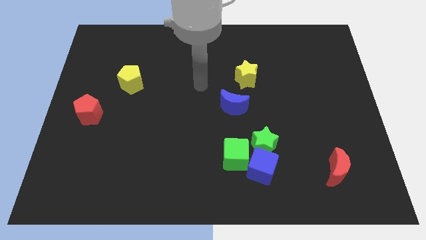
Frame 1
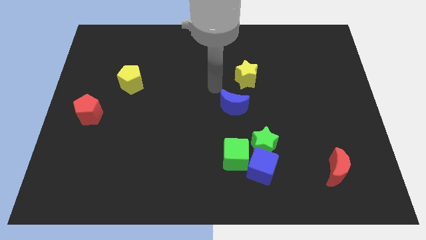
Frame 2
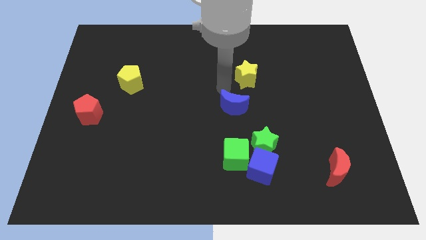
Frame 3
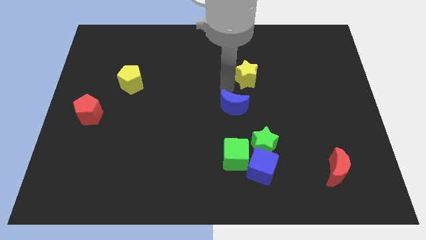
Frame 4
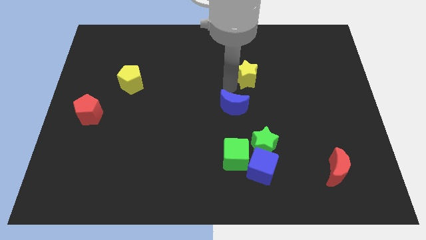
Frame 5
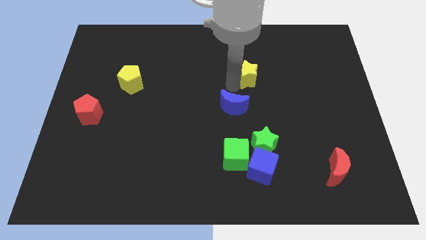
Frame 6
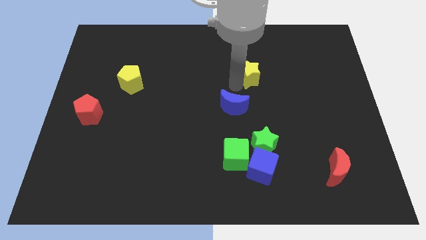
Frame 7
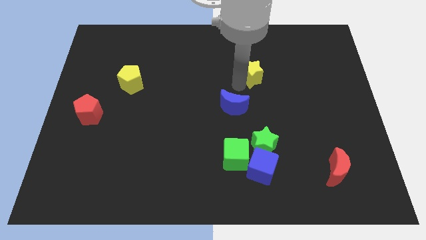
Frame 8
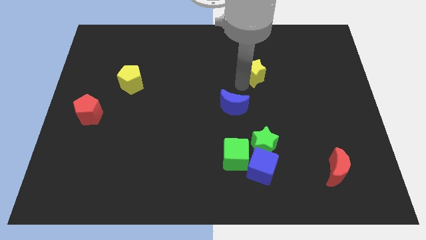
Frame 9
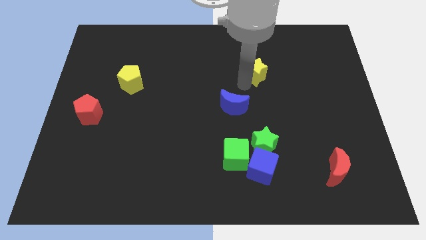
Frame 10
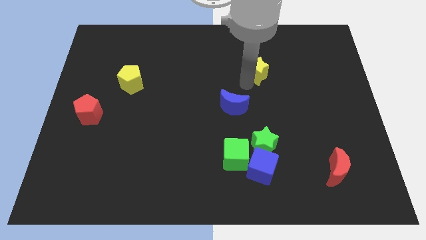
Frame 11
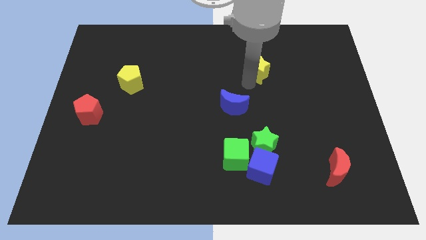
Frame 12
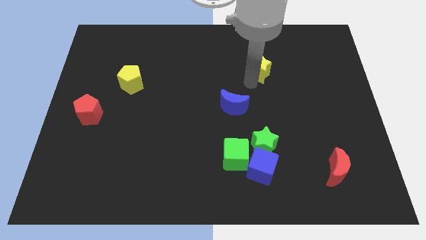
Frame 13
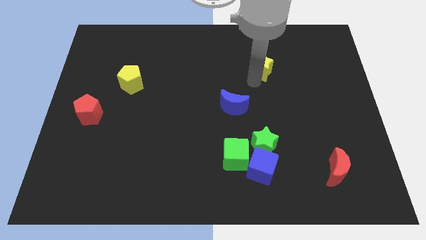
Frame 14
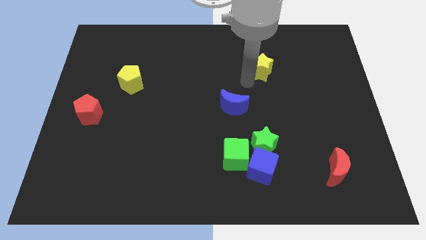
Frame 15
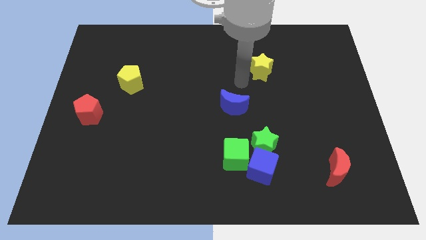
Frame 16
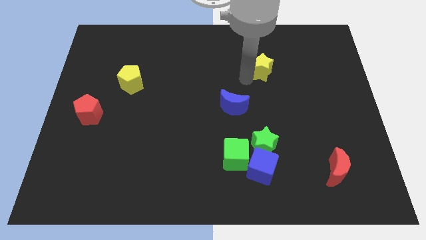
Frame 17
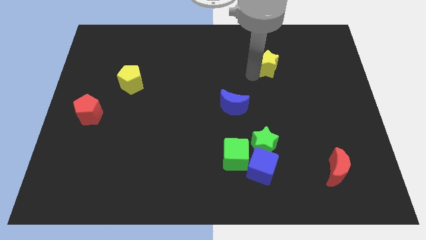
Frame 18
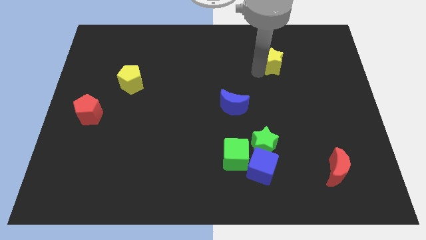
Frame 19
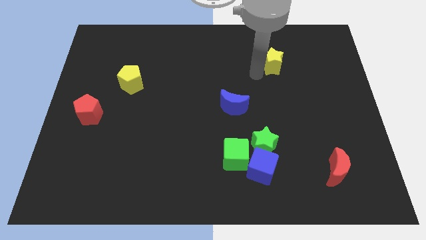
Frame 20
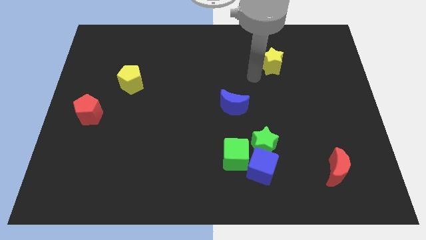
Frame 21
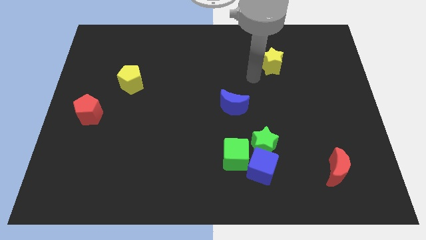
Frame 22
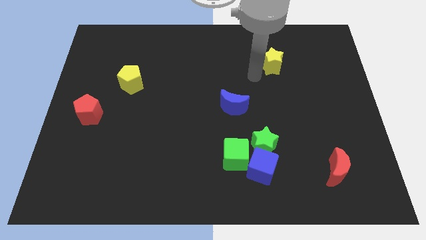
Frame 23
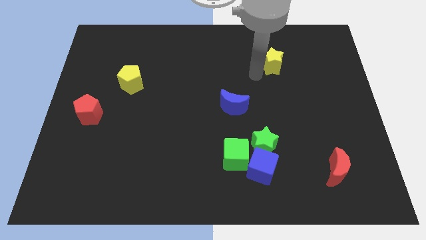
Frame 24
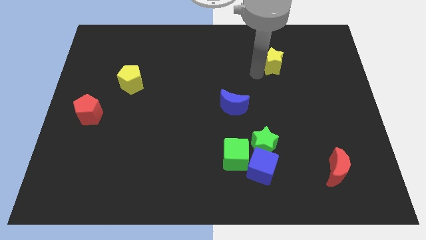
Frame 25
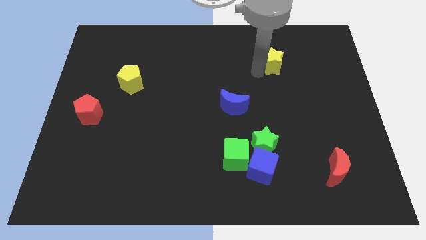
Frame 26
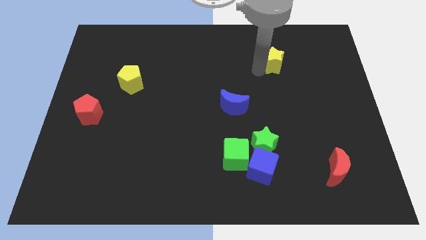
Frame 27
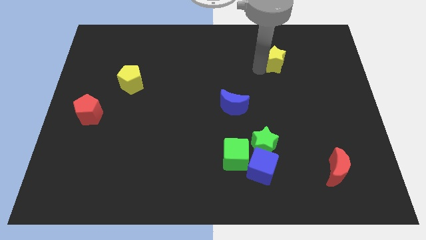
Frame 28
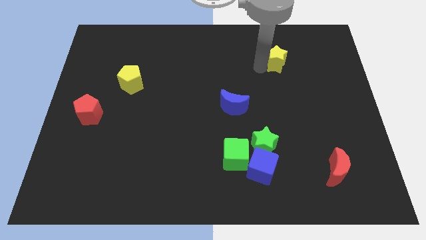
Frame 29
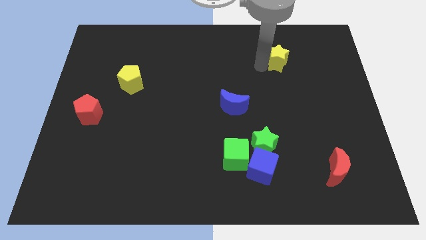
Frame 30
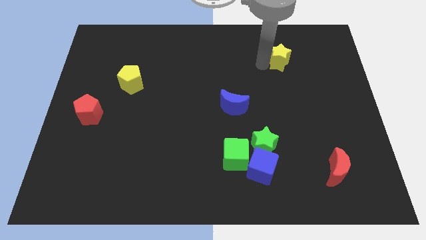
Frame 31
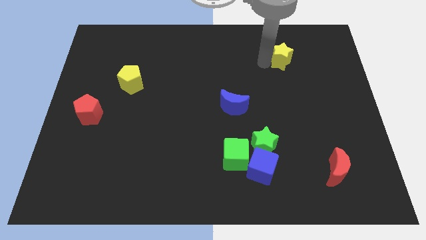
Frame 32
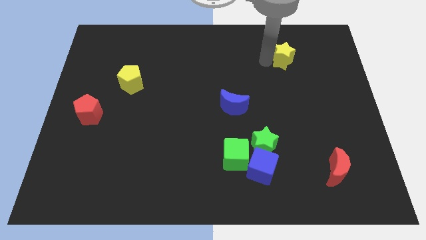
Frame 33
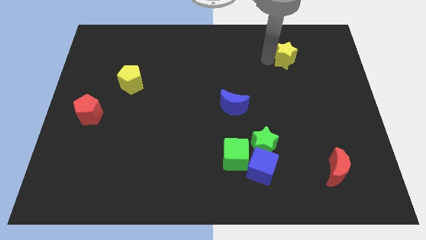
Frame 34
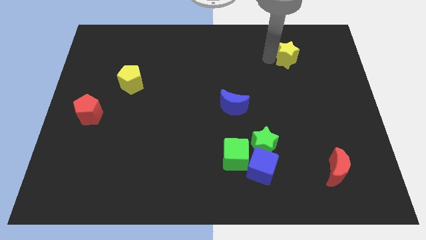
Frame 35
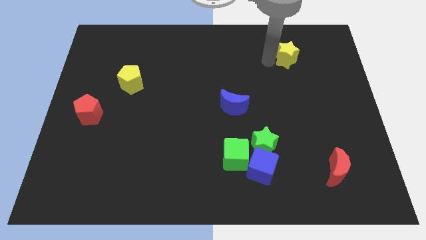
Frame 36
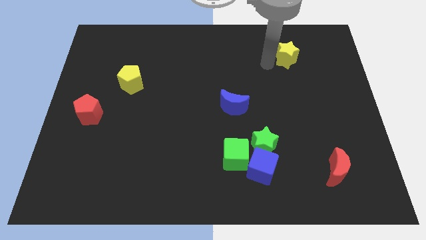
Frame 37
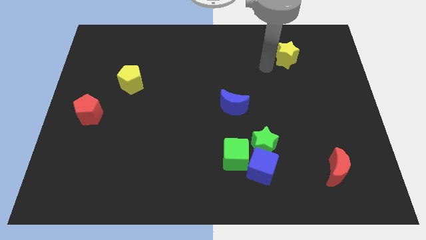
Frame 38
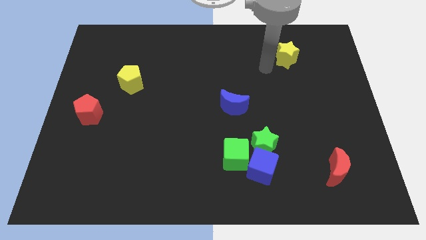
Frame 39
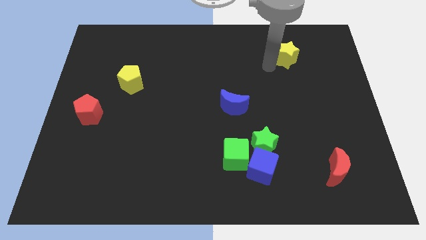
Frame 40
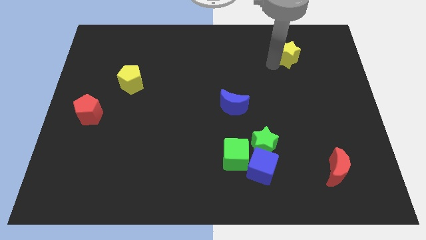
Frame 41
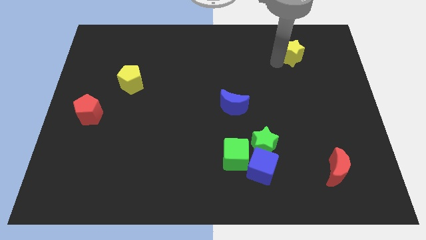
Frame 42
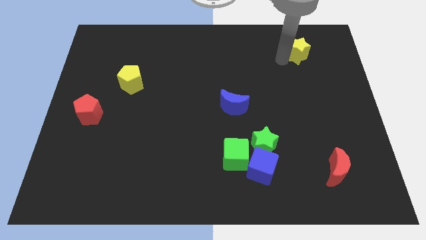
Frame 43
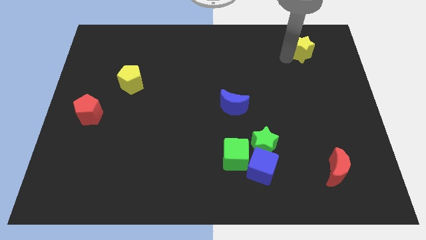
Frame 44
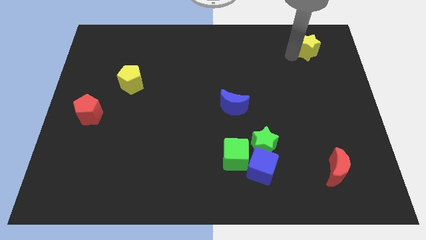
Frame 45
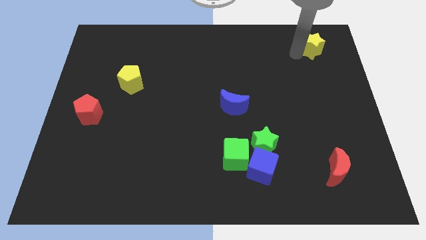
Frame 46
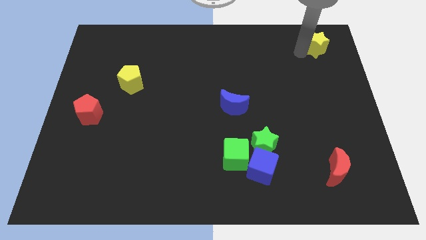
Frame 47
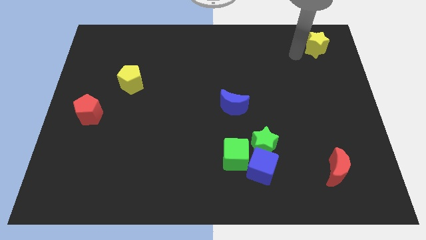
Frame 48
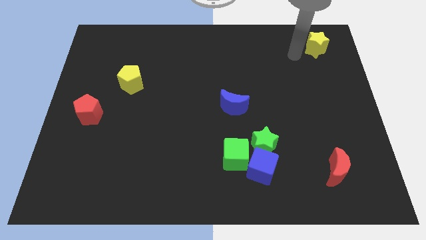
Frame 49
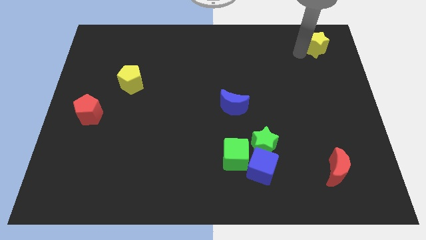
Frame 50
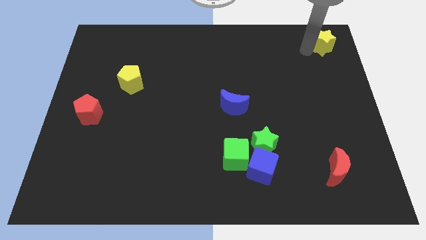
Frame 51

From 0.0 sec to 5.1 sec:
move the yellow star to the top right

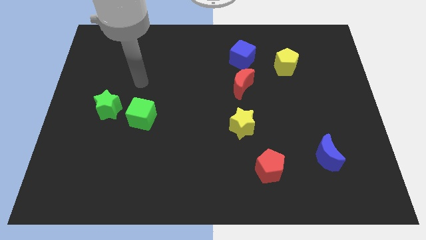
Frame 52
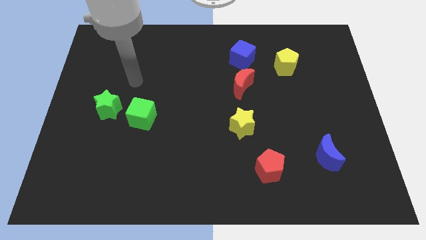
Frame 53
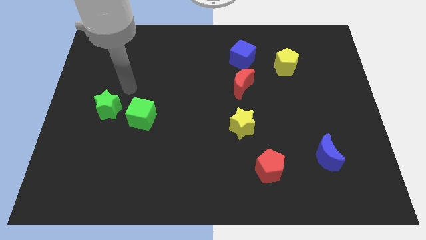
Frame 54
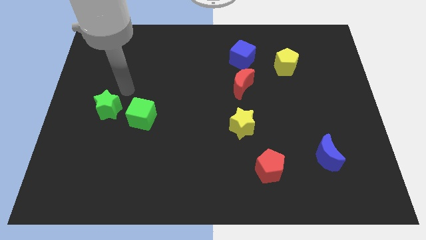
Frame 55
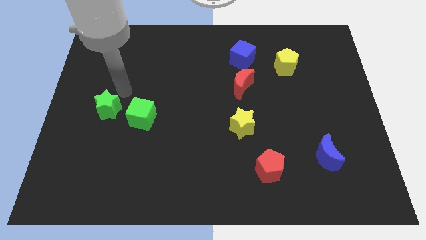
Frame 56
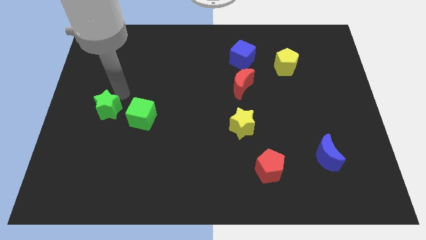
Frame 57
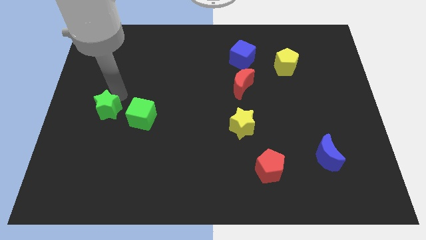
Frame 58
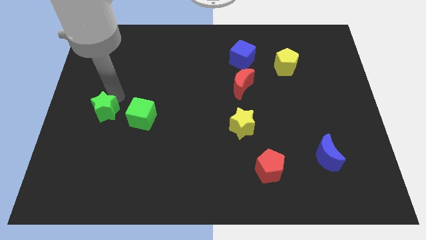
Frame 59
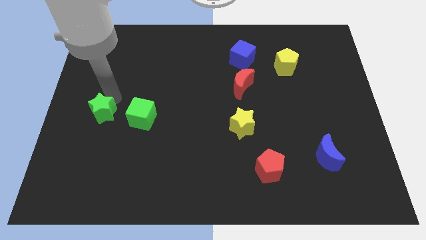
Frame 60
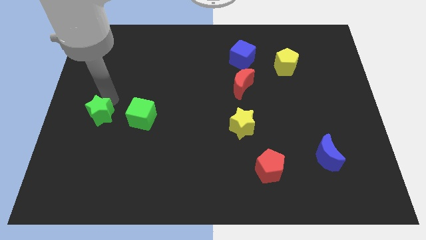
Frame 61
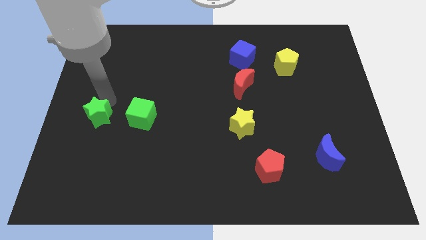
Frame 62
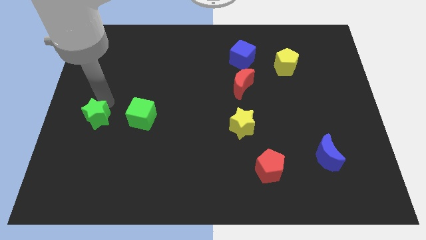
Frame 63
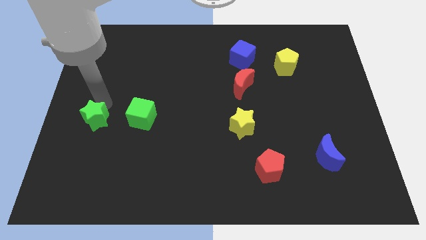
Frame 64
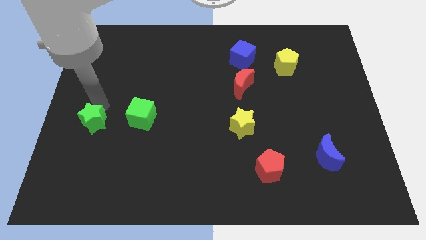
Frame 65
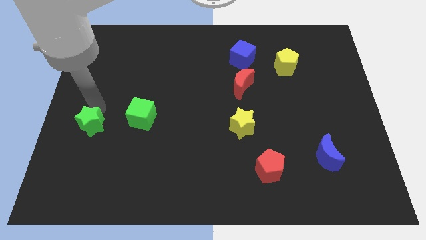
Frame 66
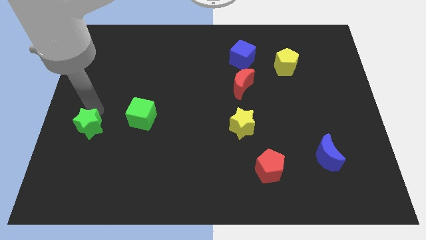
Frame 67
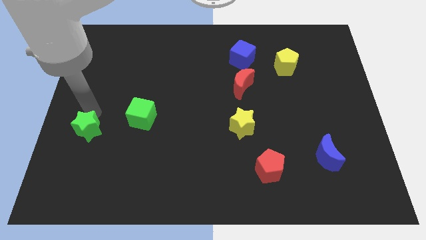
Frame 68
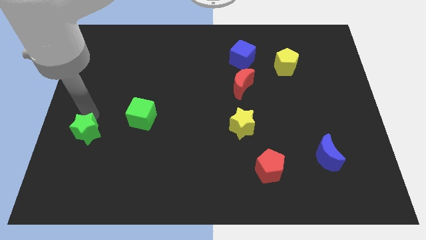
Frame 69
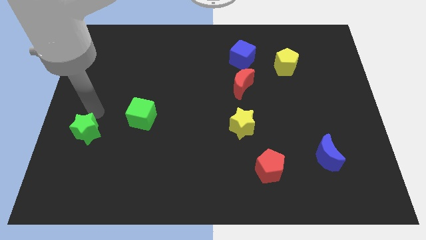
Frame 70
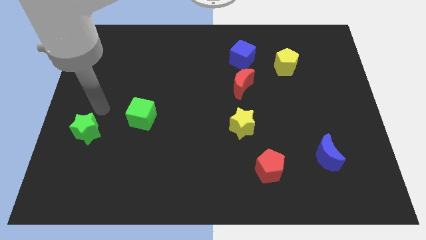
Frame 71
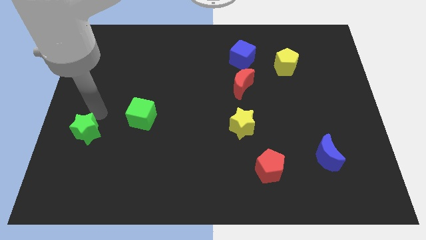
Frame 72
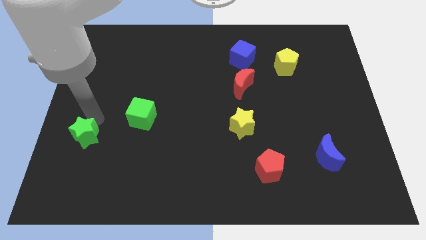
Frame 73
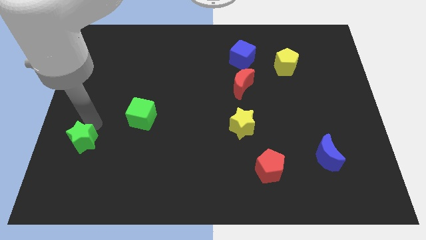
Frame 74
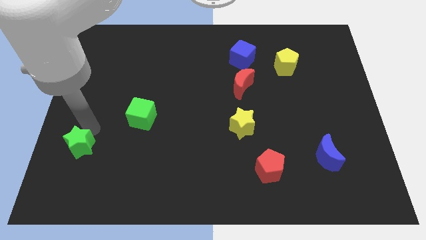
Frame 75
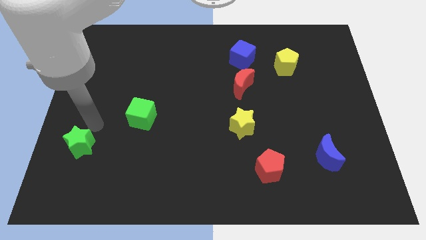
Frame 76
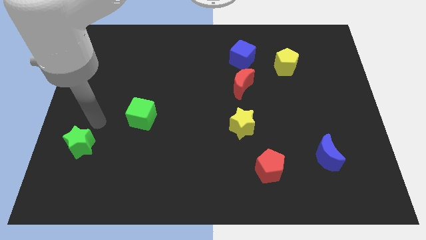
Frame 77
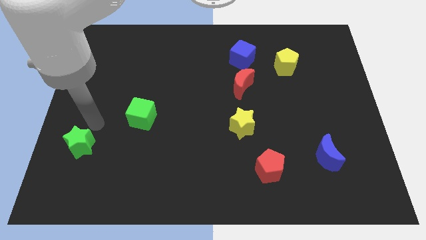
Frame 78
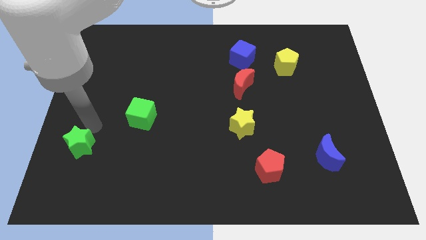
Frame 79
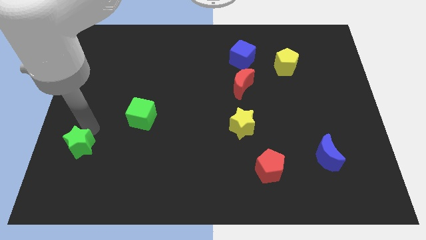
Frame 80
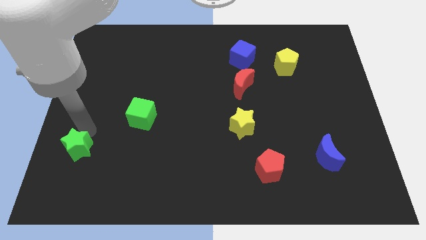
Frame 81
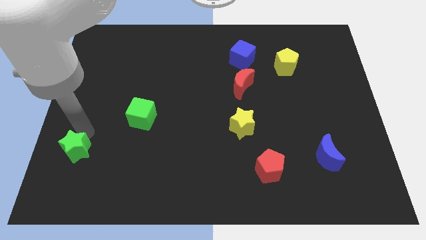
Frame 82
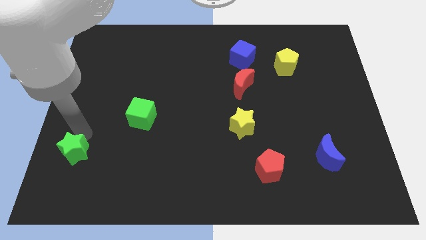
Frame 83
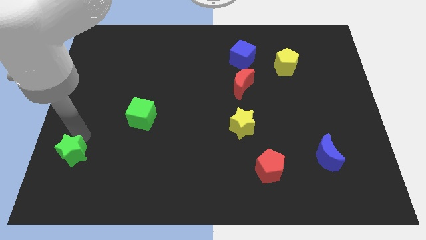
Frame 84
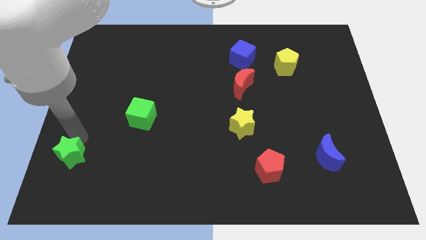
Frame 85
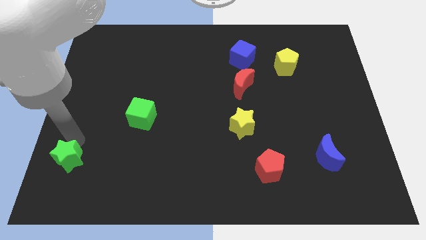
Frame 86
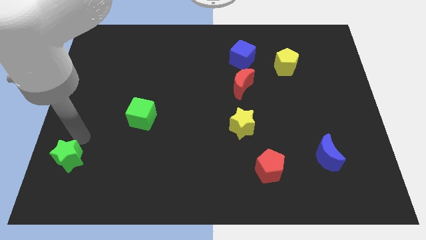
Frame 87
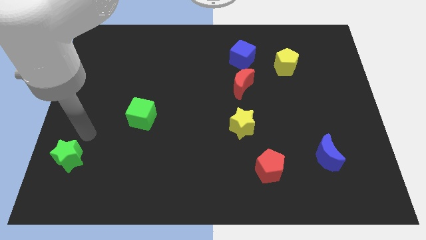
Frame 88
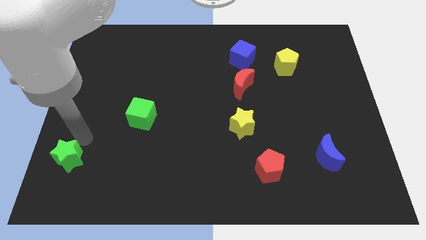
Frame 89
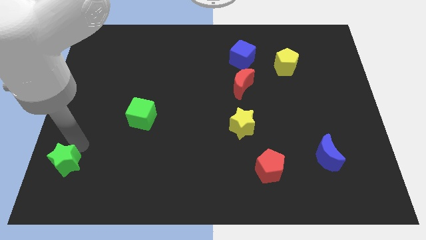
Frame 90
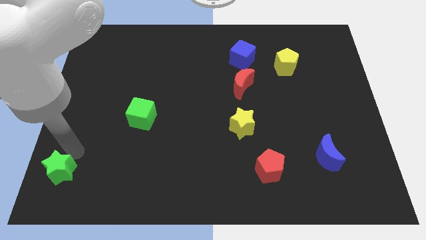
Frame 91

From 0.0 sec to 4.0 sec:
push the green star to the bottom left corner
